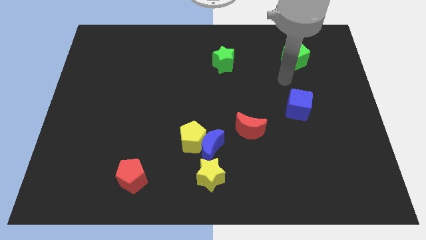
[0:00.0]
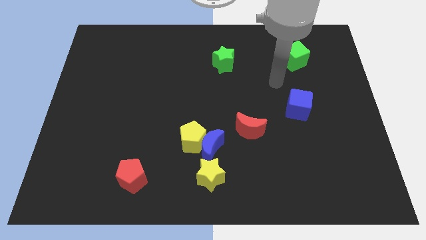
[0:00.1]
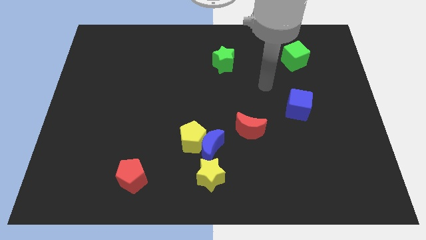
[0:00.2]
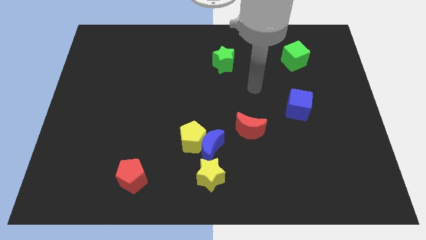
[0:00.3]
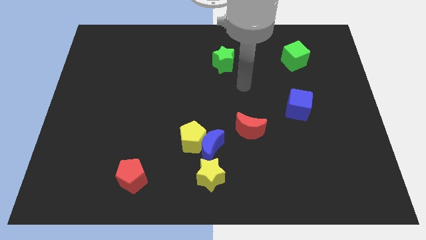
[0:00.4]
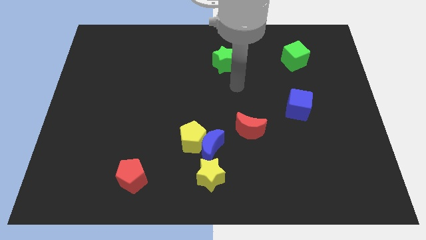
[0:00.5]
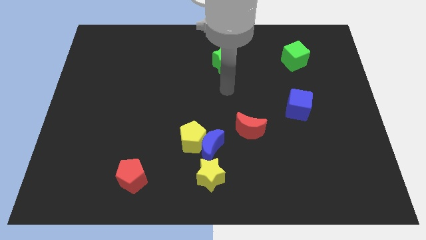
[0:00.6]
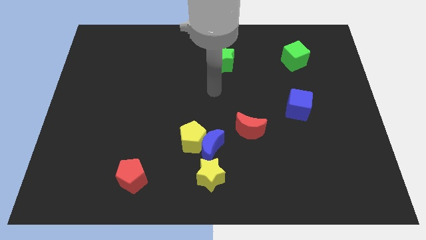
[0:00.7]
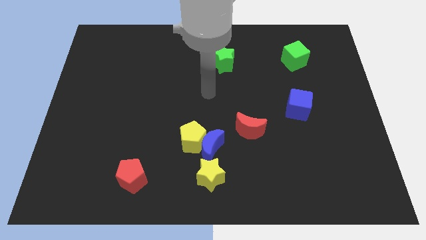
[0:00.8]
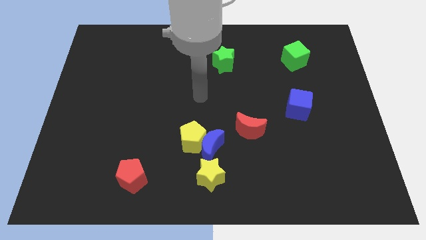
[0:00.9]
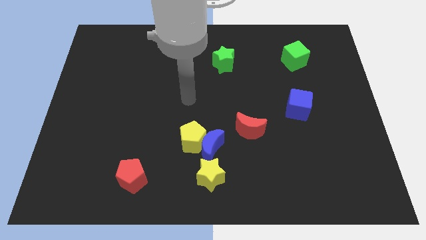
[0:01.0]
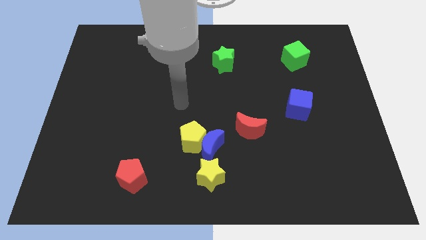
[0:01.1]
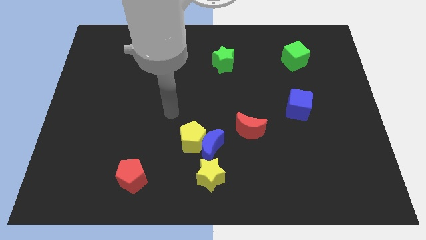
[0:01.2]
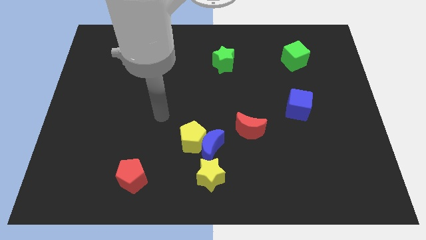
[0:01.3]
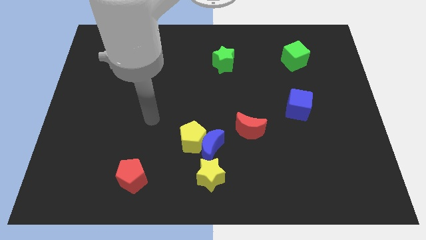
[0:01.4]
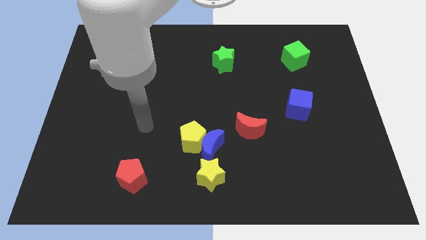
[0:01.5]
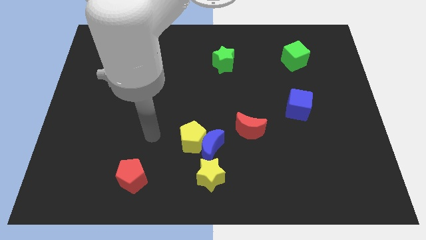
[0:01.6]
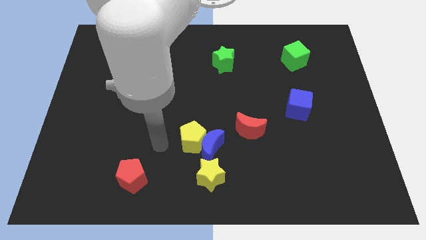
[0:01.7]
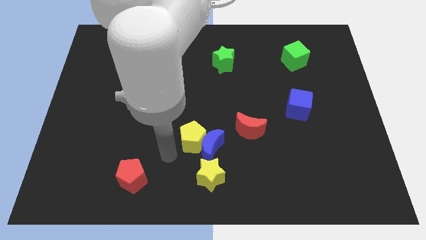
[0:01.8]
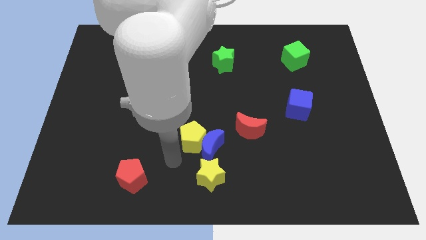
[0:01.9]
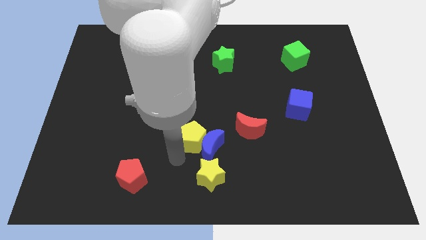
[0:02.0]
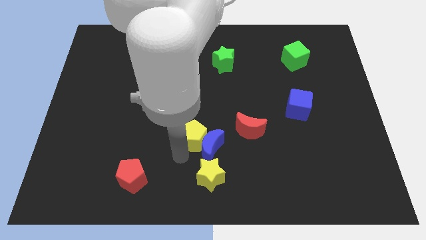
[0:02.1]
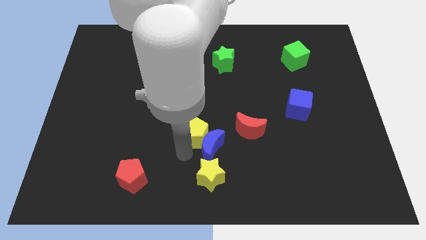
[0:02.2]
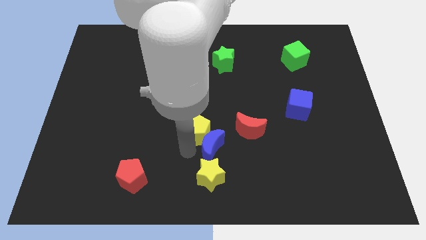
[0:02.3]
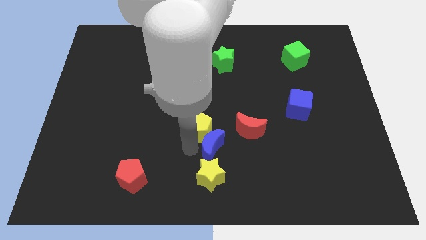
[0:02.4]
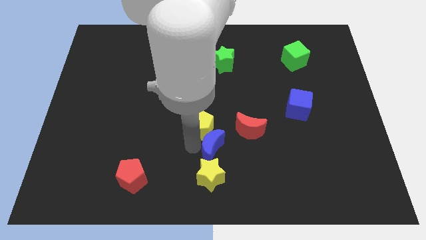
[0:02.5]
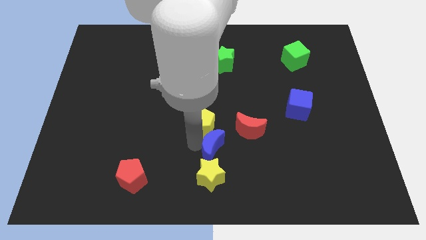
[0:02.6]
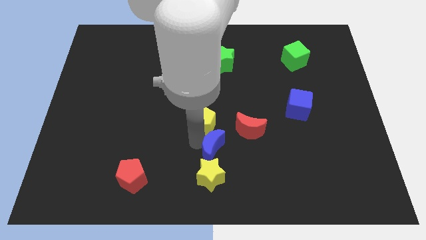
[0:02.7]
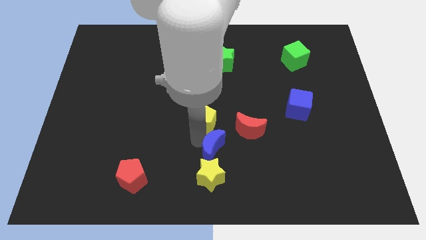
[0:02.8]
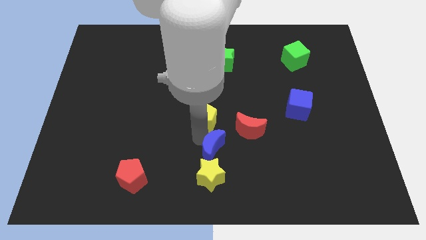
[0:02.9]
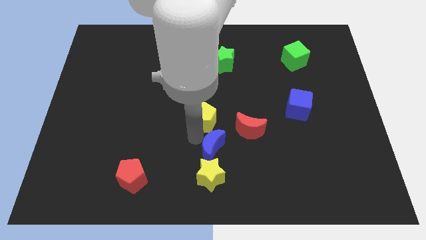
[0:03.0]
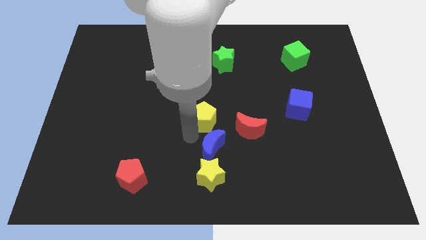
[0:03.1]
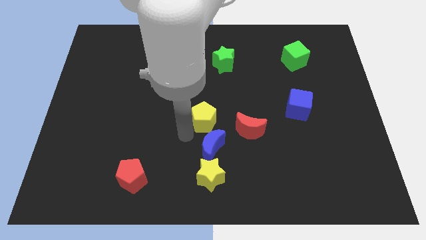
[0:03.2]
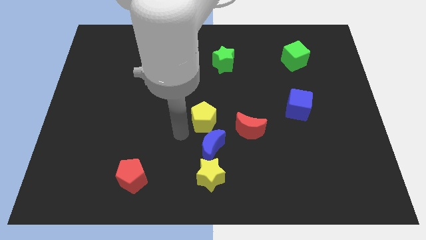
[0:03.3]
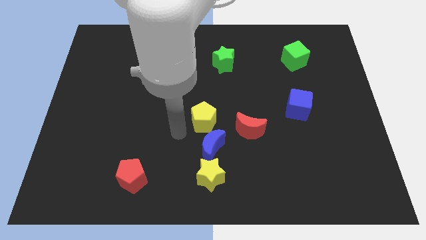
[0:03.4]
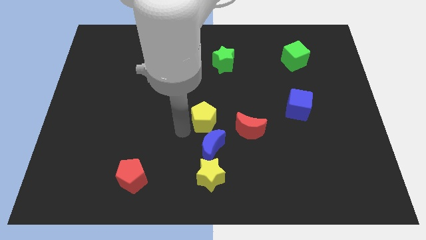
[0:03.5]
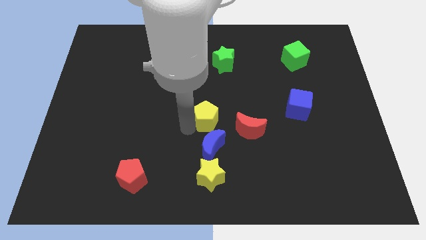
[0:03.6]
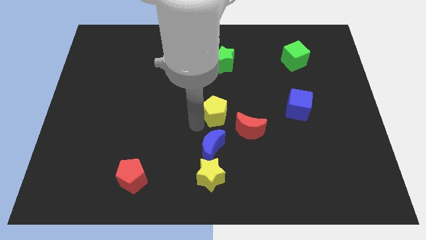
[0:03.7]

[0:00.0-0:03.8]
slide the yellow pentagon somewhat upwards and right diagonally

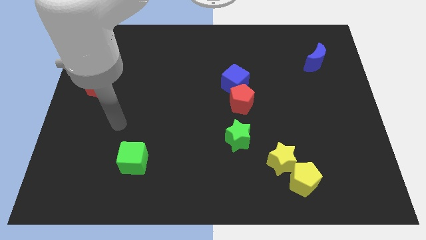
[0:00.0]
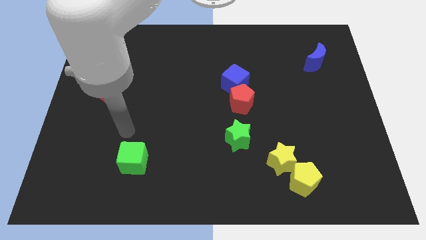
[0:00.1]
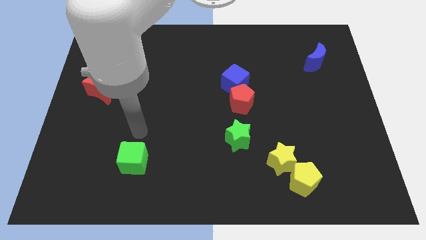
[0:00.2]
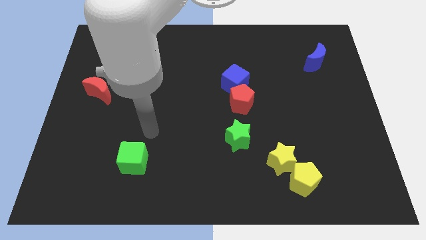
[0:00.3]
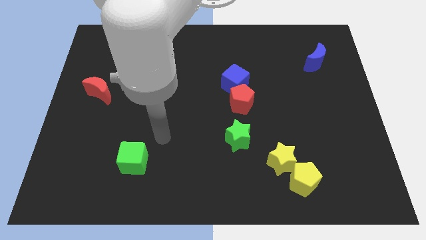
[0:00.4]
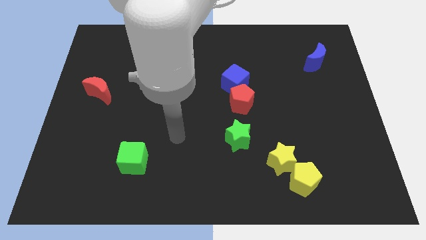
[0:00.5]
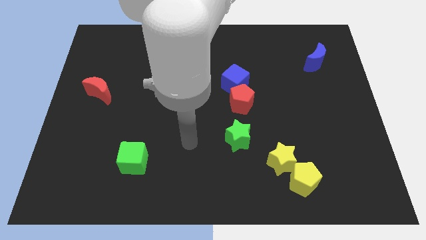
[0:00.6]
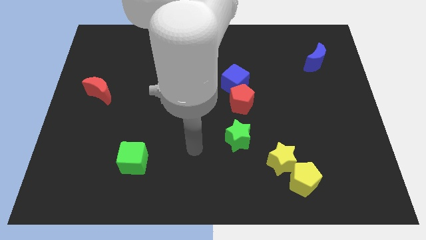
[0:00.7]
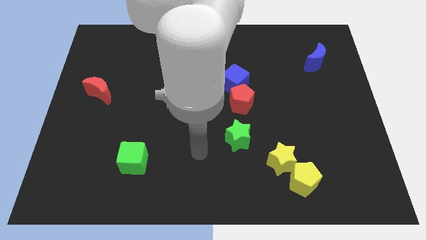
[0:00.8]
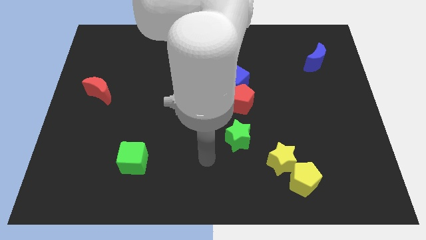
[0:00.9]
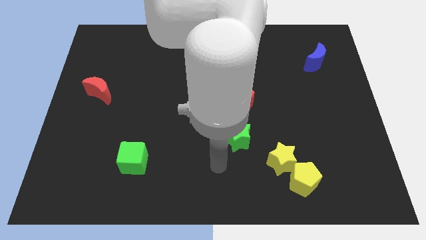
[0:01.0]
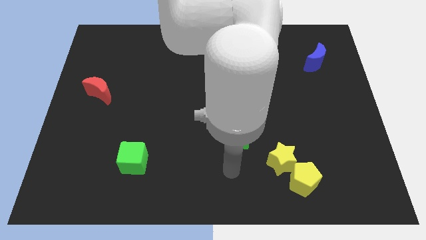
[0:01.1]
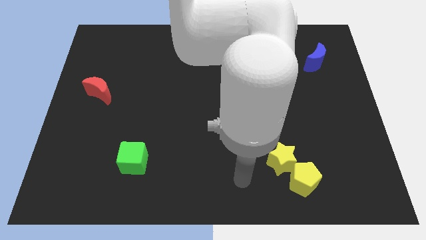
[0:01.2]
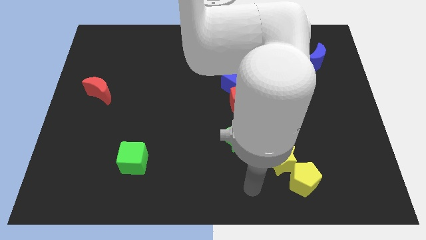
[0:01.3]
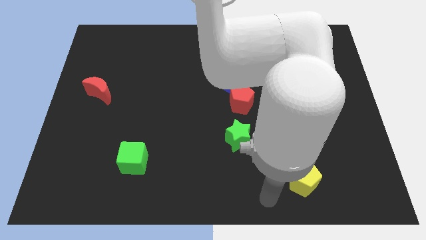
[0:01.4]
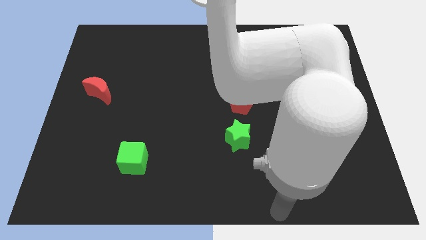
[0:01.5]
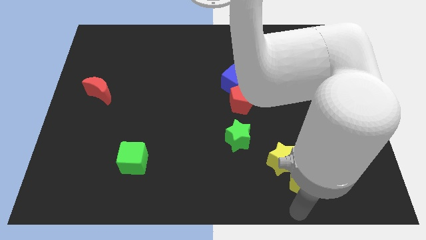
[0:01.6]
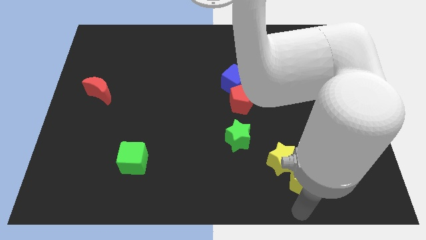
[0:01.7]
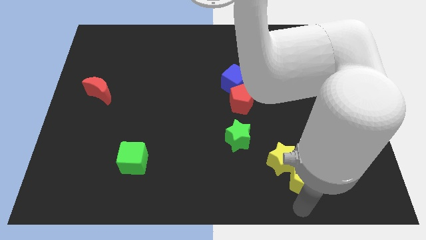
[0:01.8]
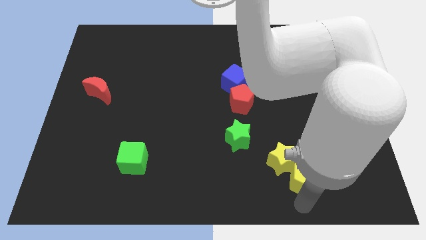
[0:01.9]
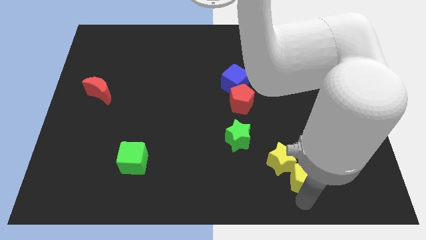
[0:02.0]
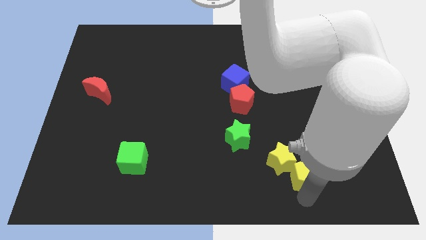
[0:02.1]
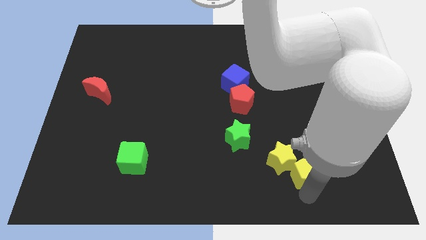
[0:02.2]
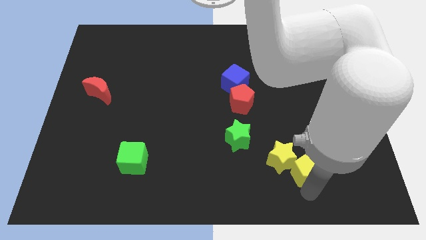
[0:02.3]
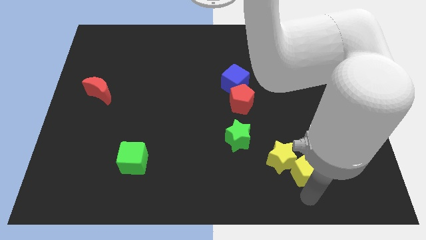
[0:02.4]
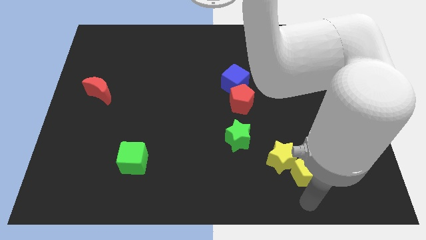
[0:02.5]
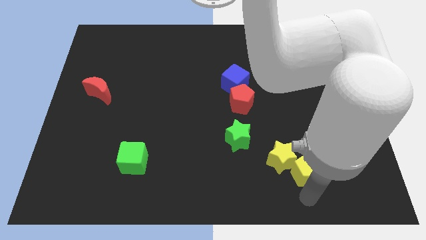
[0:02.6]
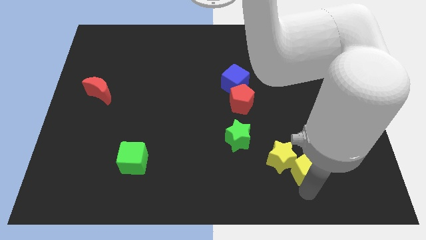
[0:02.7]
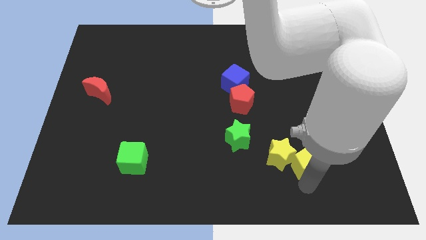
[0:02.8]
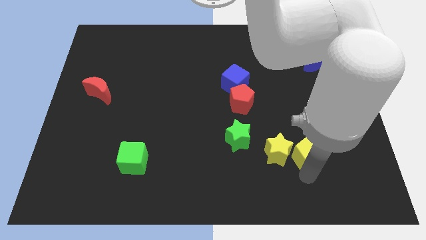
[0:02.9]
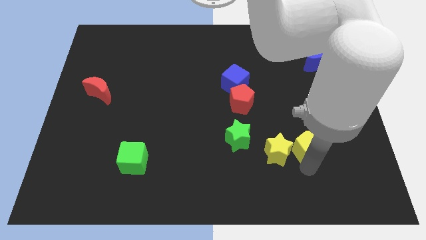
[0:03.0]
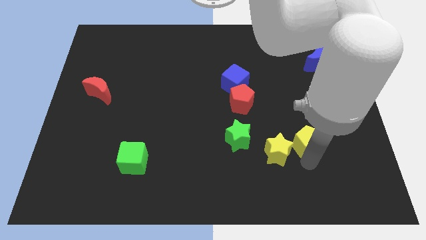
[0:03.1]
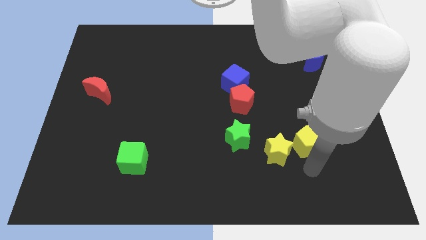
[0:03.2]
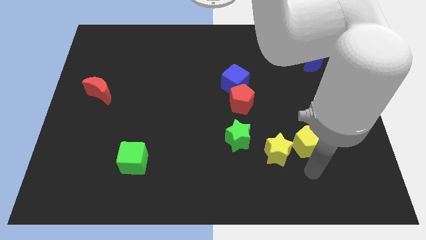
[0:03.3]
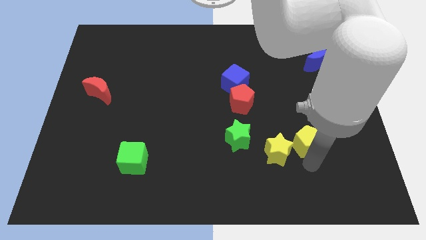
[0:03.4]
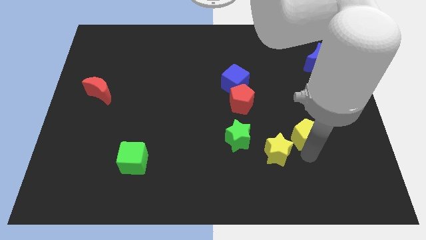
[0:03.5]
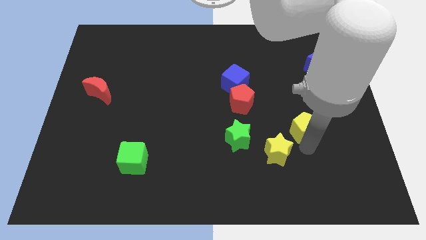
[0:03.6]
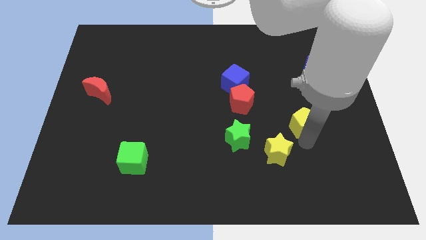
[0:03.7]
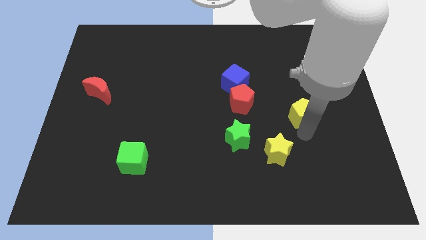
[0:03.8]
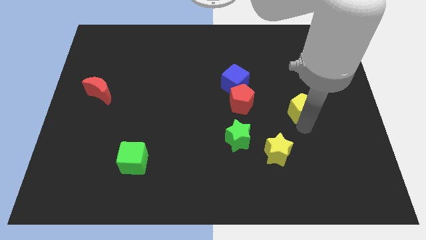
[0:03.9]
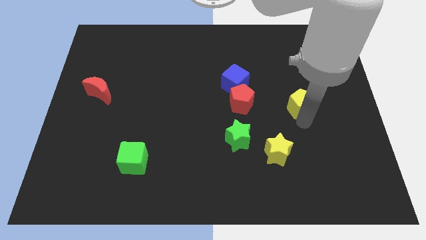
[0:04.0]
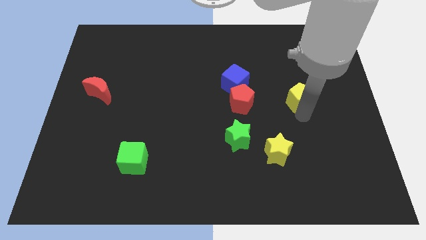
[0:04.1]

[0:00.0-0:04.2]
slide the yellow pentagon up
